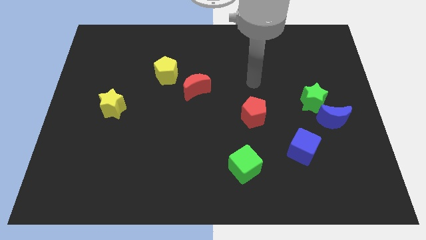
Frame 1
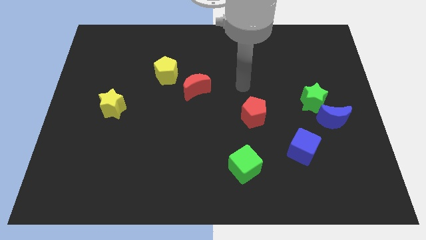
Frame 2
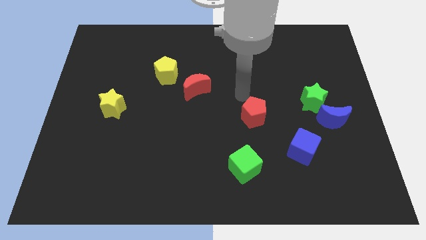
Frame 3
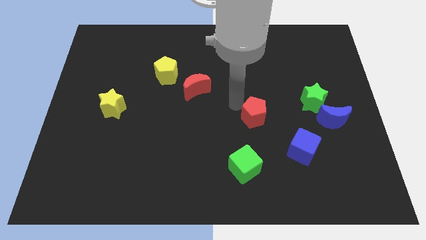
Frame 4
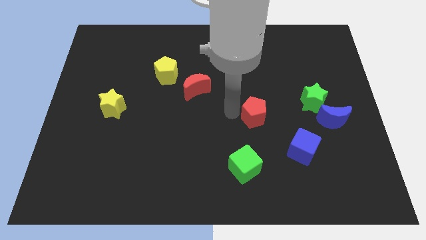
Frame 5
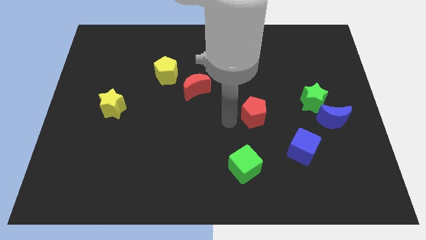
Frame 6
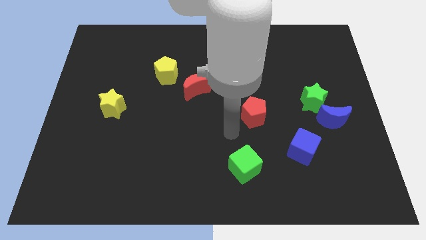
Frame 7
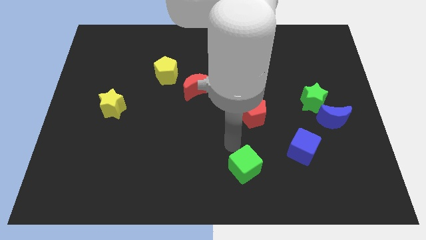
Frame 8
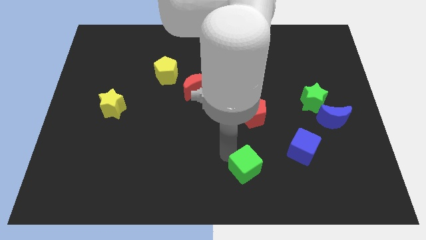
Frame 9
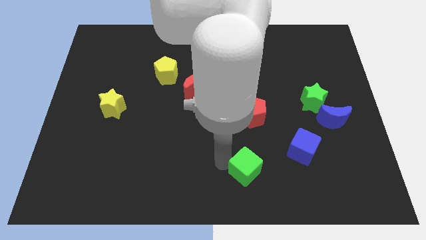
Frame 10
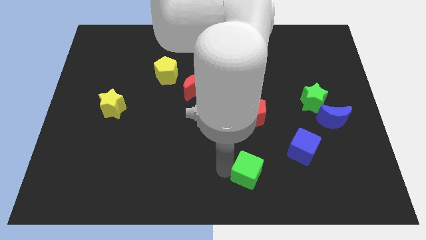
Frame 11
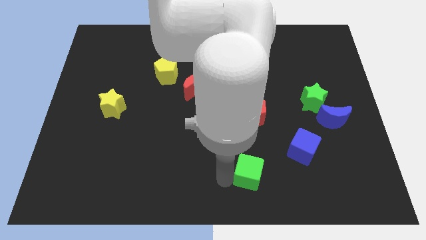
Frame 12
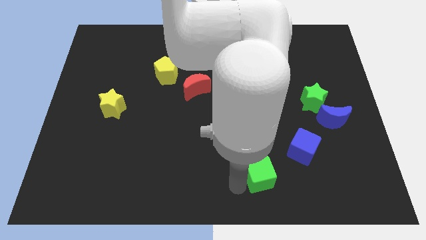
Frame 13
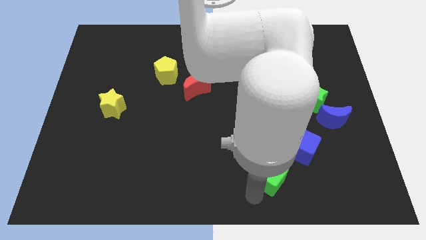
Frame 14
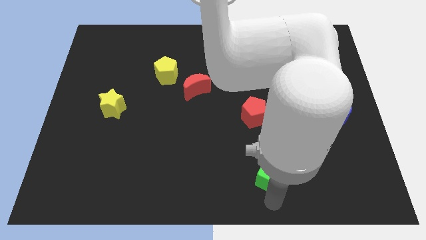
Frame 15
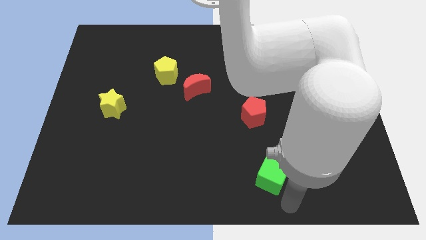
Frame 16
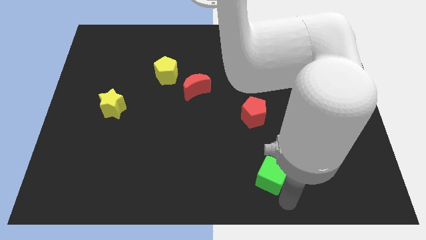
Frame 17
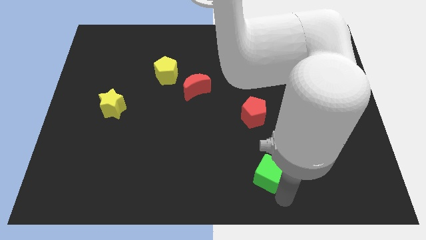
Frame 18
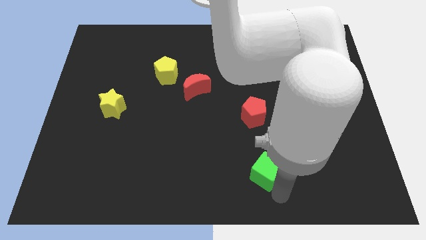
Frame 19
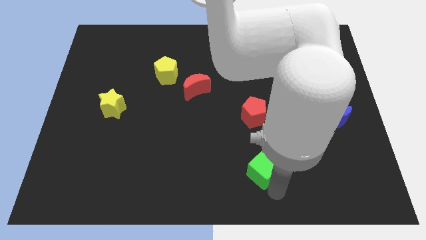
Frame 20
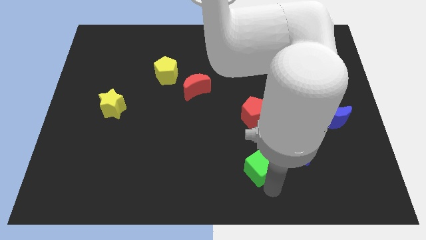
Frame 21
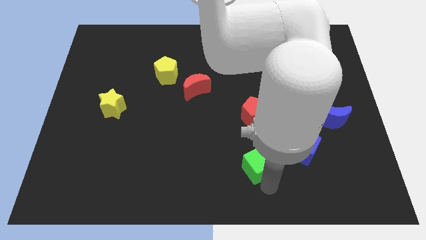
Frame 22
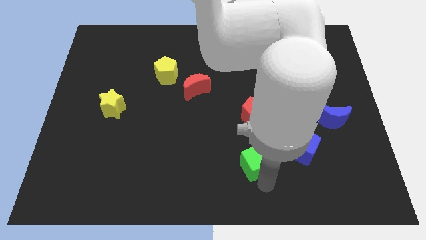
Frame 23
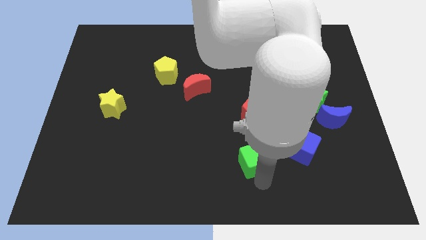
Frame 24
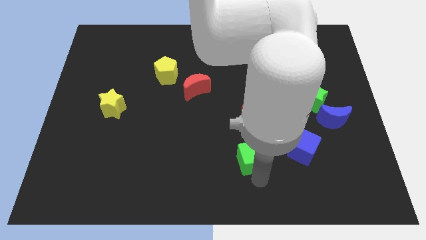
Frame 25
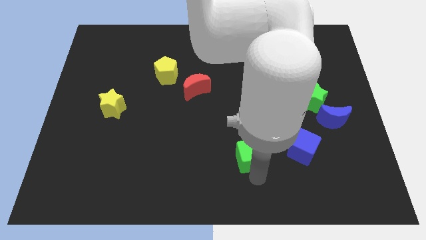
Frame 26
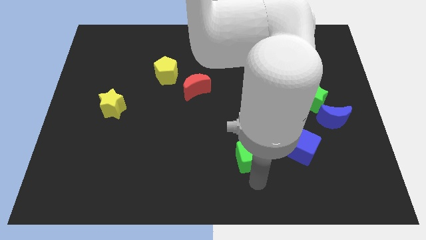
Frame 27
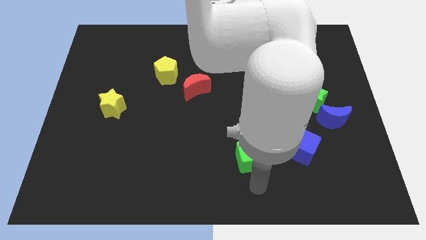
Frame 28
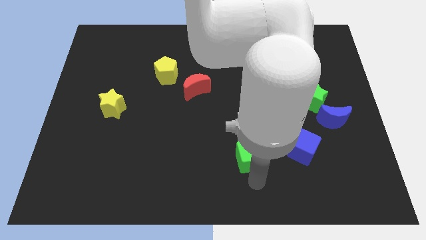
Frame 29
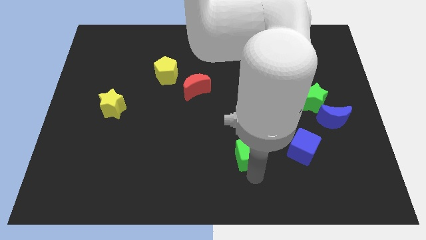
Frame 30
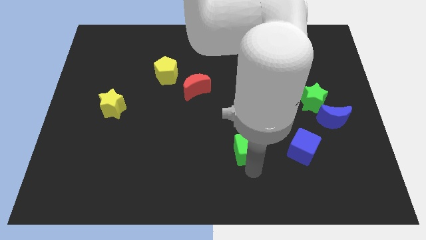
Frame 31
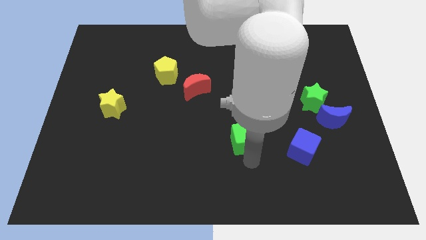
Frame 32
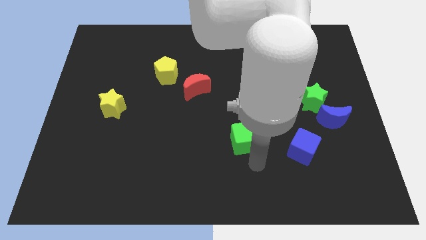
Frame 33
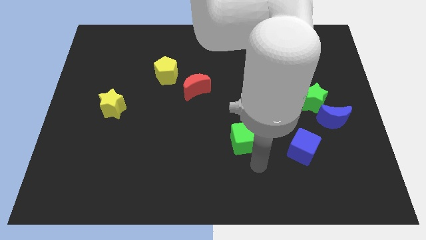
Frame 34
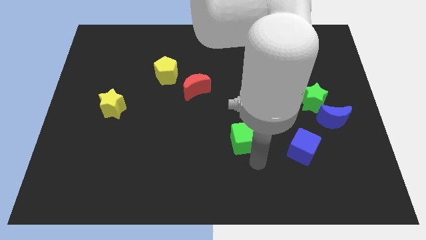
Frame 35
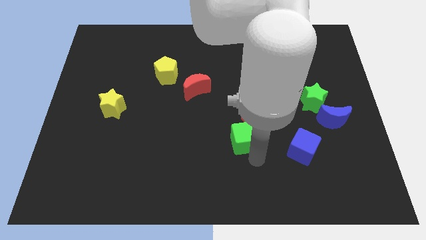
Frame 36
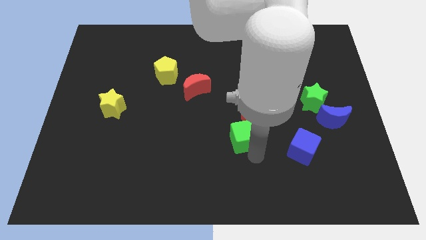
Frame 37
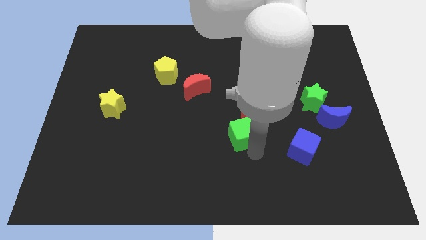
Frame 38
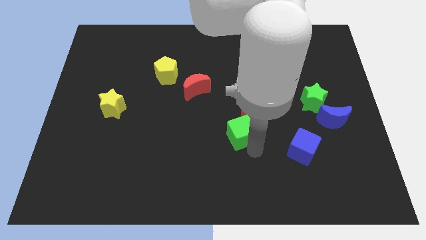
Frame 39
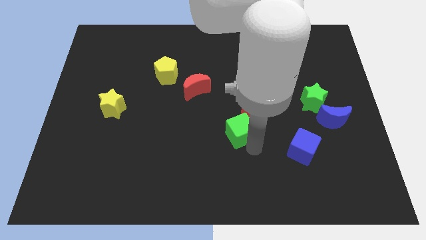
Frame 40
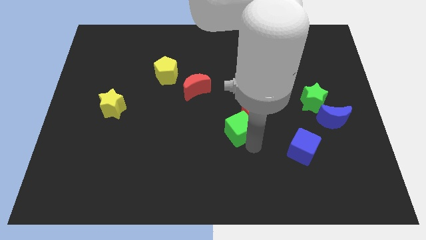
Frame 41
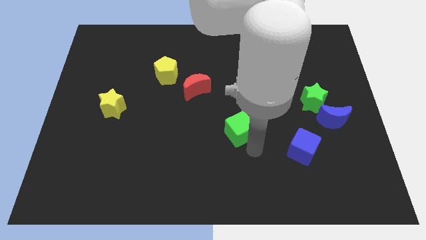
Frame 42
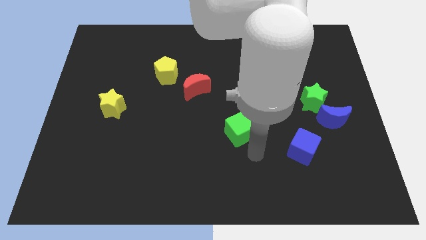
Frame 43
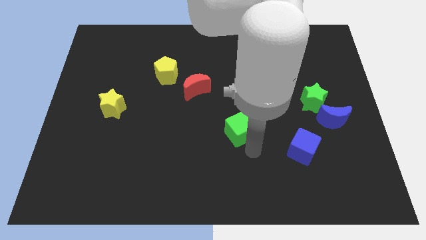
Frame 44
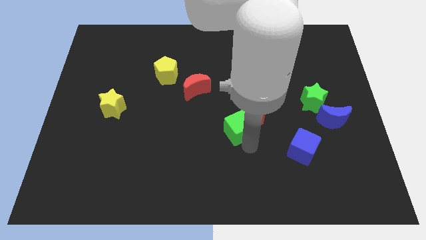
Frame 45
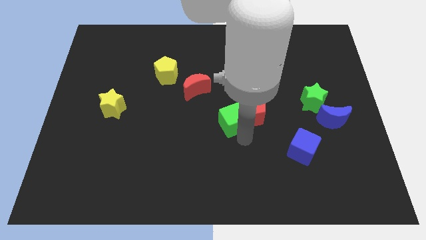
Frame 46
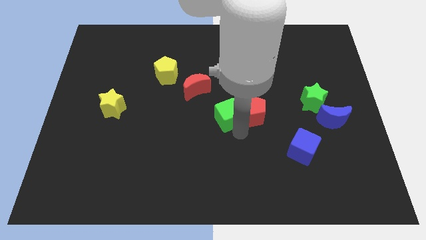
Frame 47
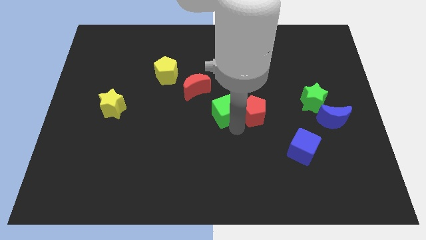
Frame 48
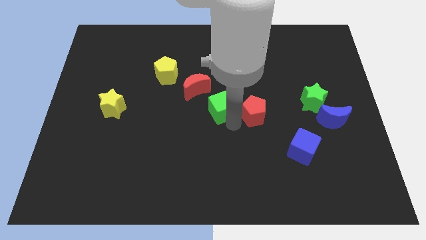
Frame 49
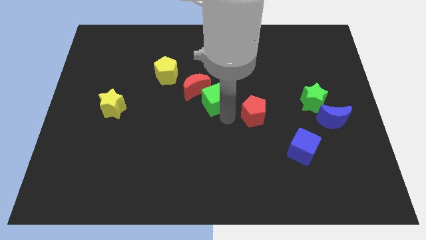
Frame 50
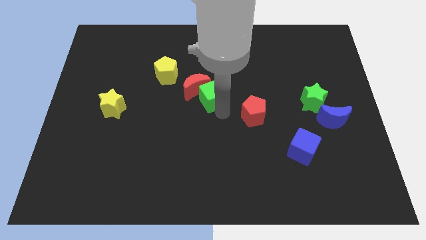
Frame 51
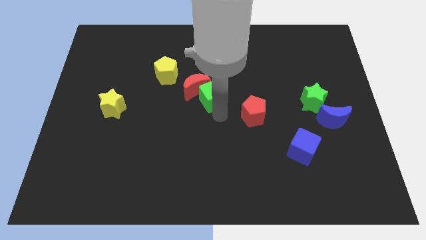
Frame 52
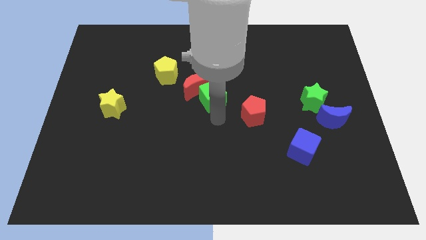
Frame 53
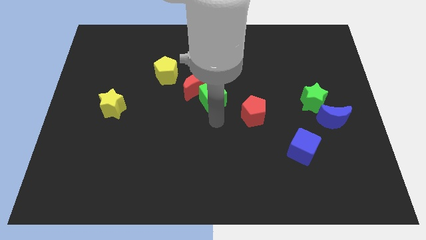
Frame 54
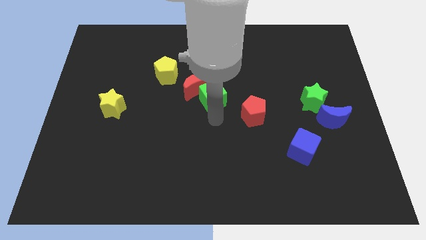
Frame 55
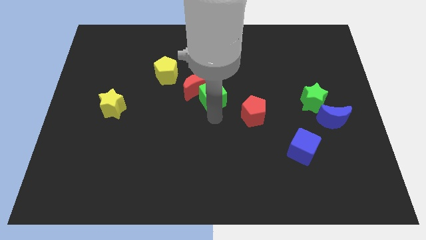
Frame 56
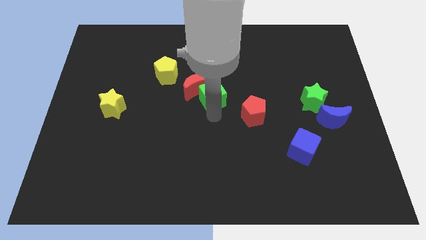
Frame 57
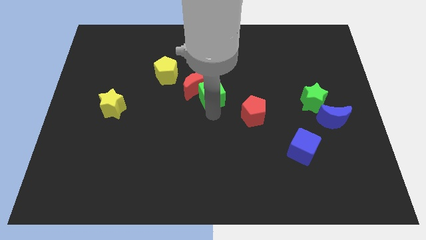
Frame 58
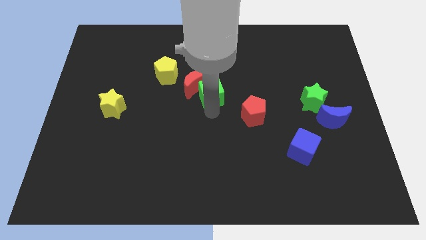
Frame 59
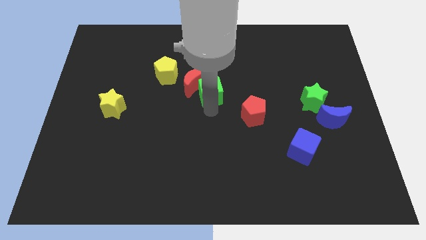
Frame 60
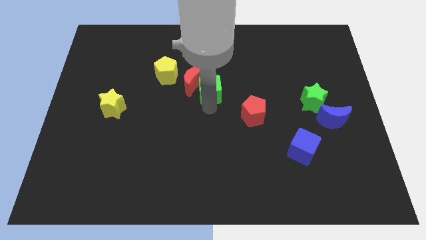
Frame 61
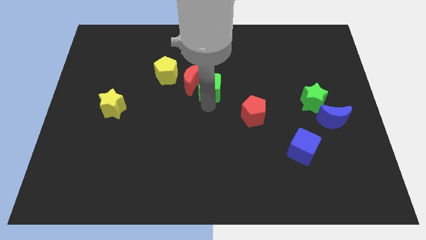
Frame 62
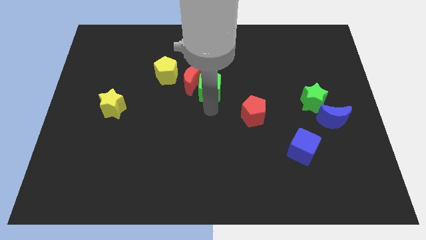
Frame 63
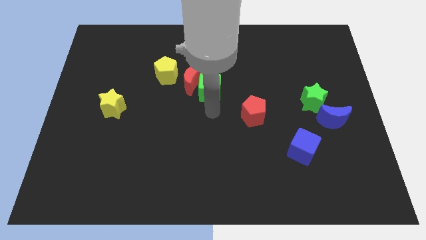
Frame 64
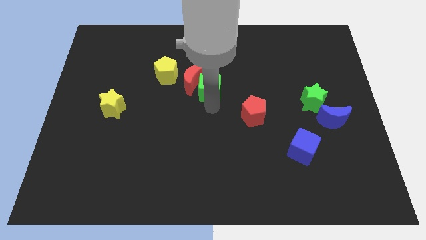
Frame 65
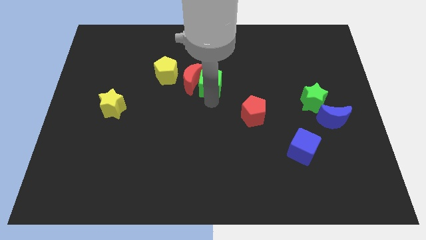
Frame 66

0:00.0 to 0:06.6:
push the green cube right of the yellow pentagon

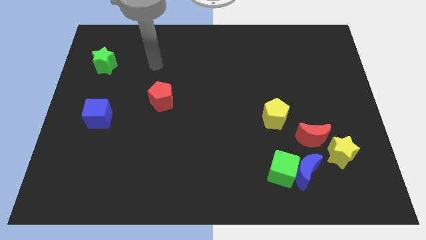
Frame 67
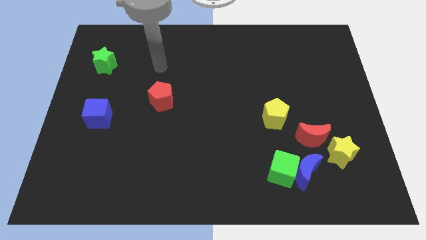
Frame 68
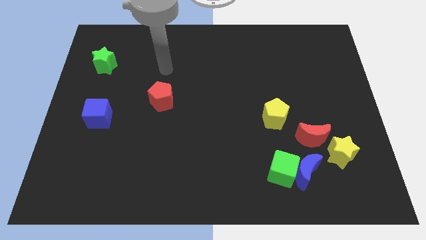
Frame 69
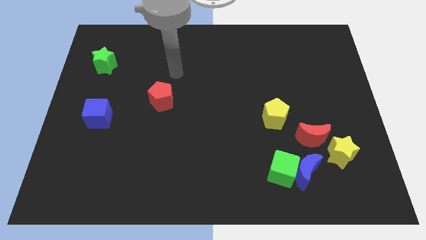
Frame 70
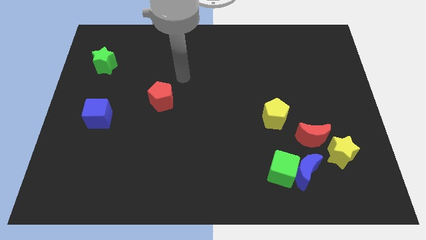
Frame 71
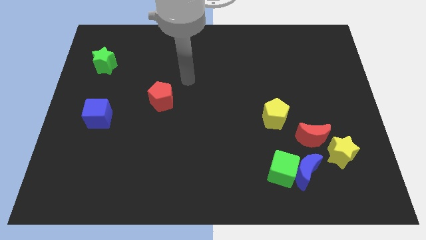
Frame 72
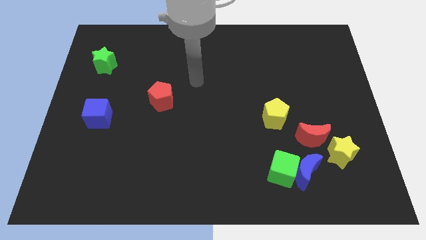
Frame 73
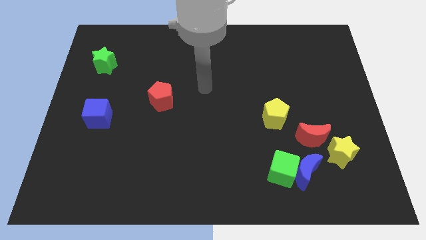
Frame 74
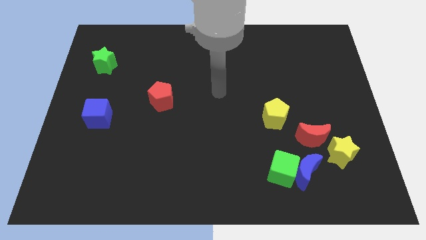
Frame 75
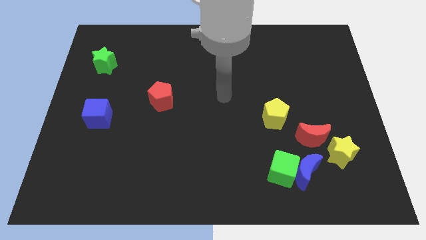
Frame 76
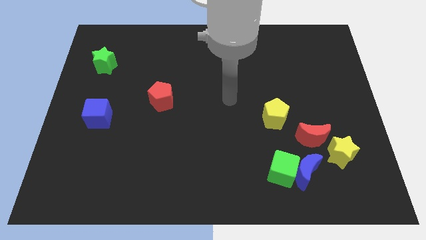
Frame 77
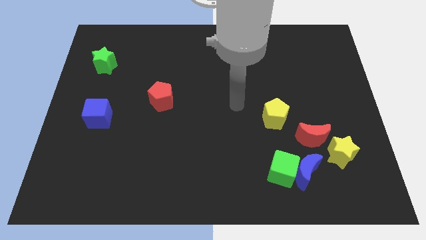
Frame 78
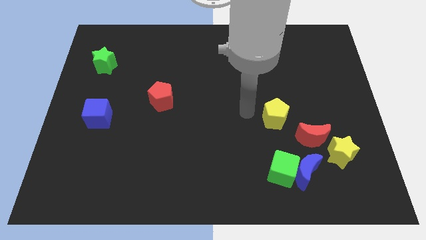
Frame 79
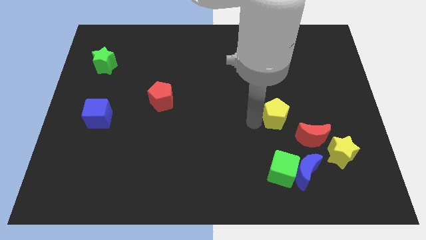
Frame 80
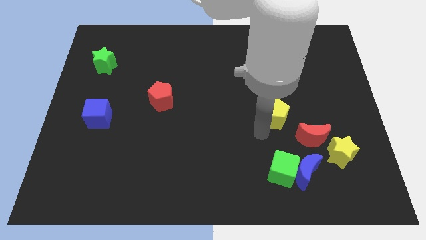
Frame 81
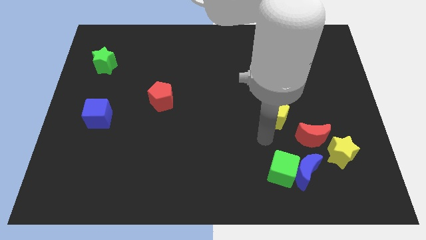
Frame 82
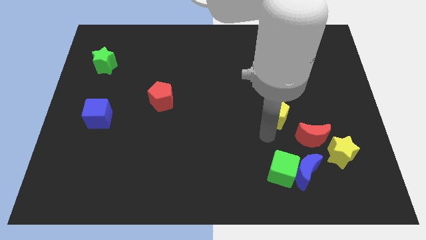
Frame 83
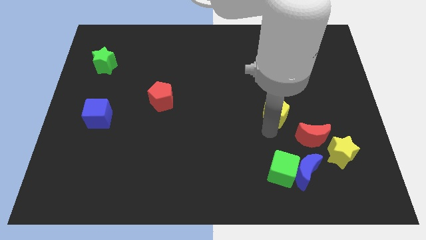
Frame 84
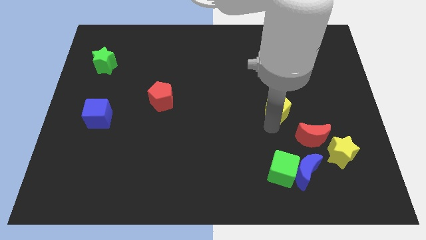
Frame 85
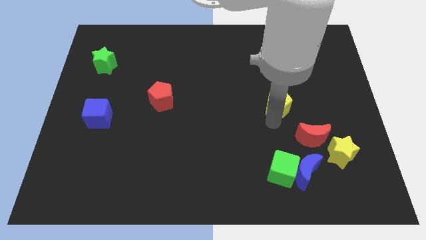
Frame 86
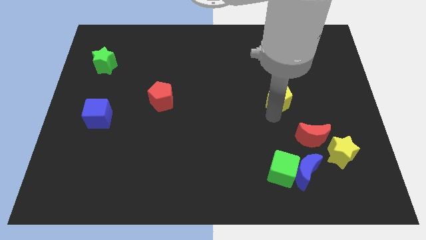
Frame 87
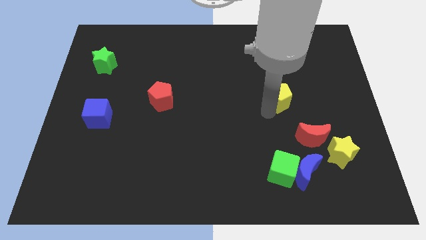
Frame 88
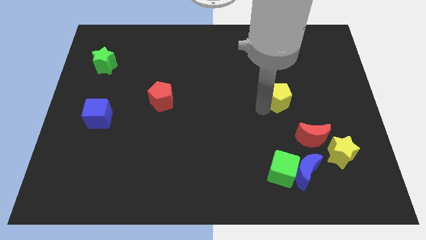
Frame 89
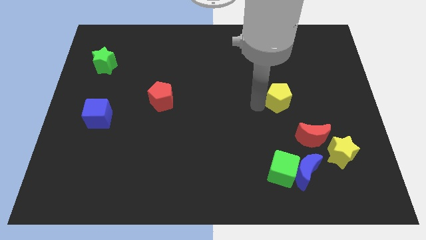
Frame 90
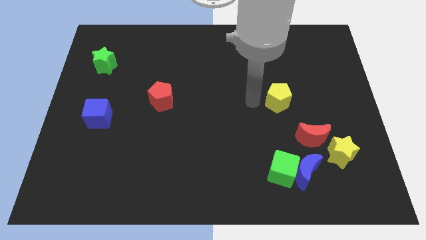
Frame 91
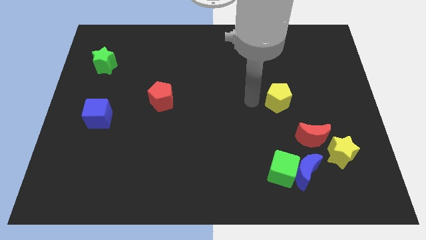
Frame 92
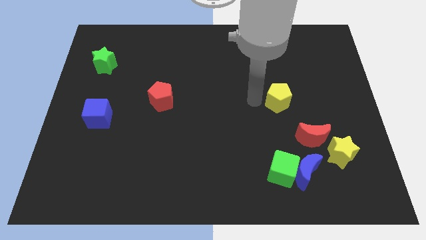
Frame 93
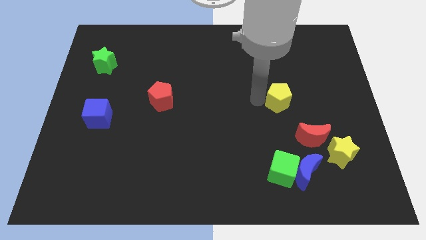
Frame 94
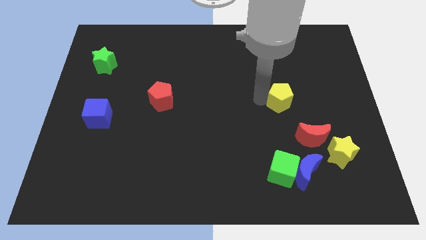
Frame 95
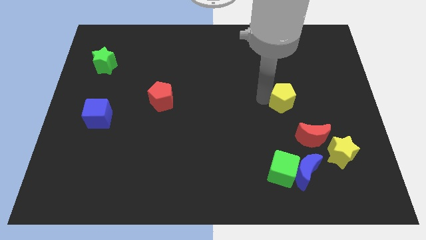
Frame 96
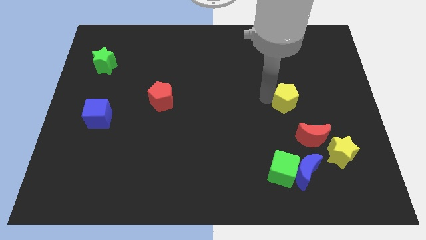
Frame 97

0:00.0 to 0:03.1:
push the yellow pentagon to the top side of the red moon
